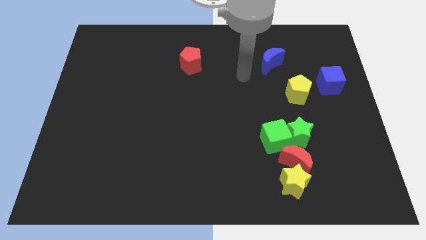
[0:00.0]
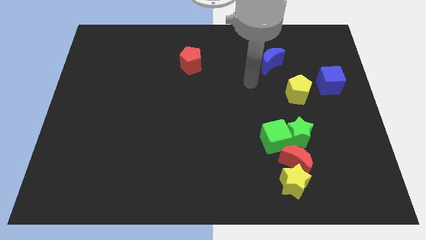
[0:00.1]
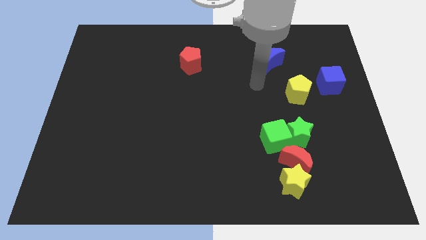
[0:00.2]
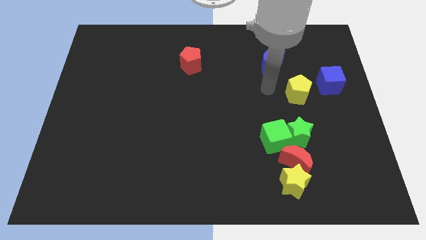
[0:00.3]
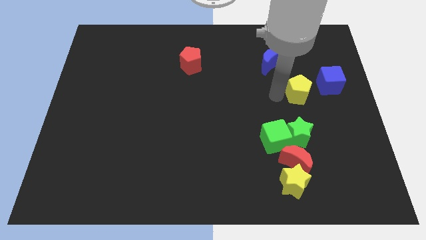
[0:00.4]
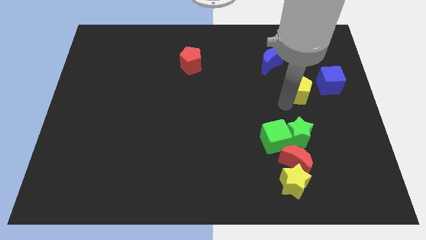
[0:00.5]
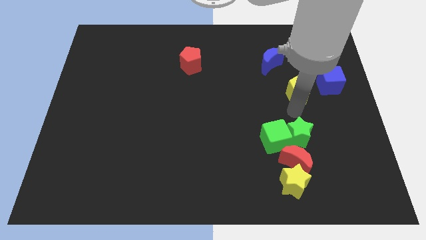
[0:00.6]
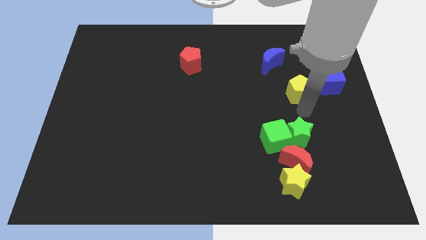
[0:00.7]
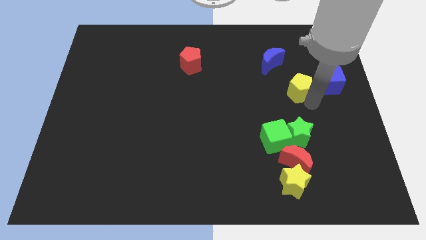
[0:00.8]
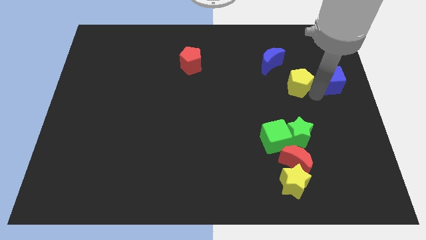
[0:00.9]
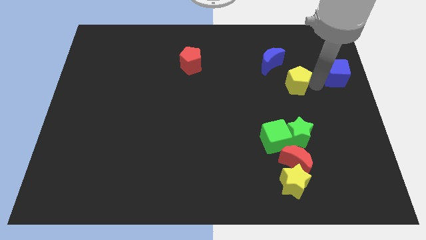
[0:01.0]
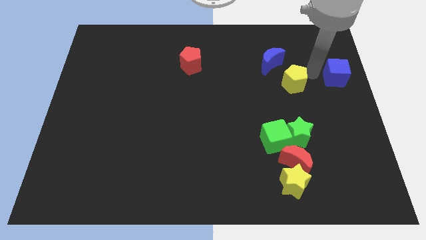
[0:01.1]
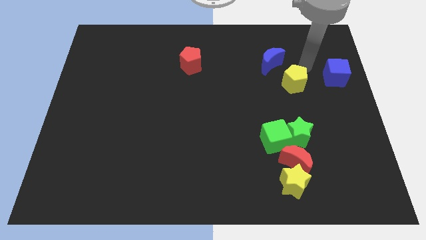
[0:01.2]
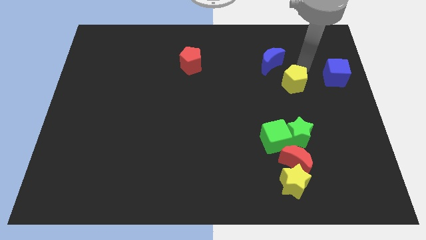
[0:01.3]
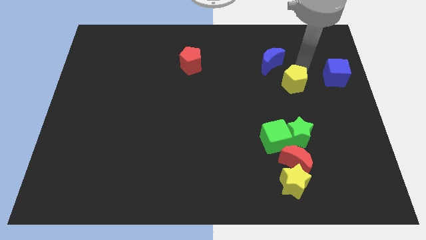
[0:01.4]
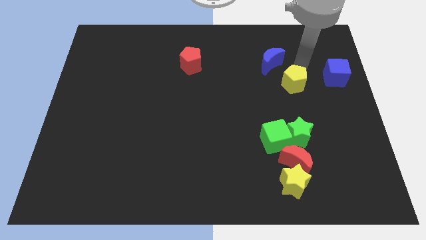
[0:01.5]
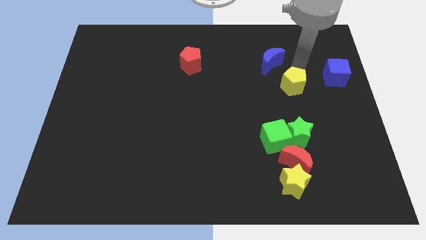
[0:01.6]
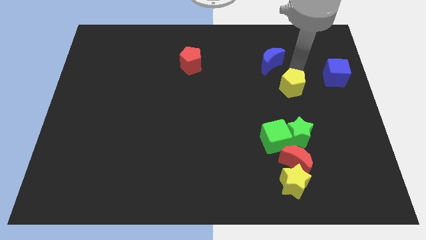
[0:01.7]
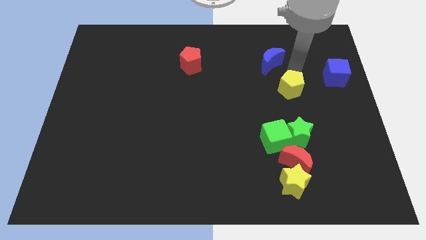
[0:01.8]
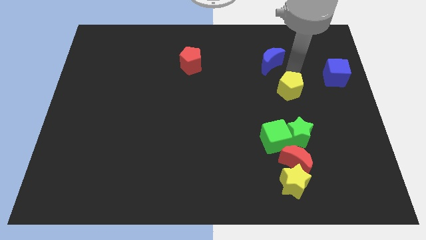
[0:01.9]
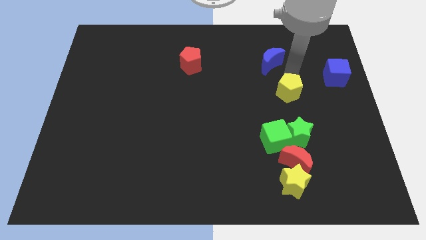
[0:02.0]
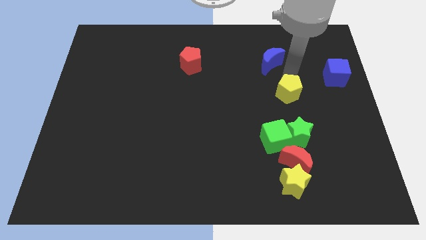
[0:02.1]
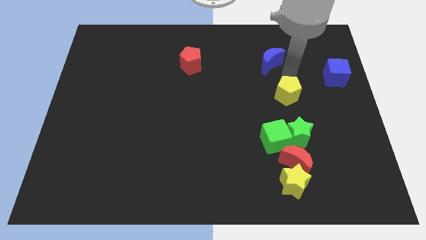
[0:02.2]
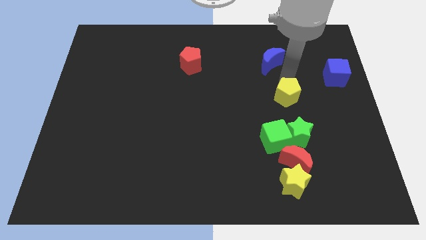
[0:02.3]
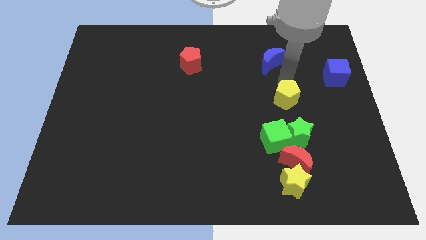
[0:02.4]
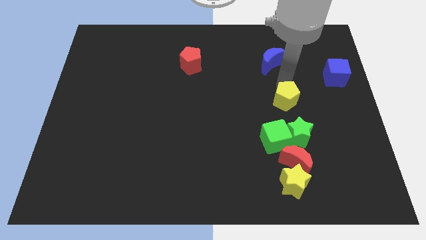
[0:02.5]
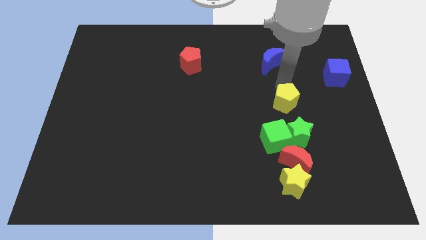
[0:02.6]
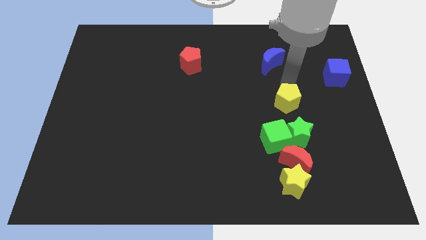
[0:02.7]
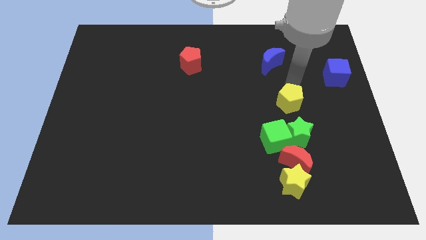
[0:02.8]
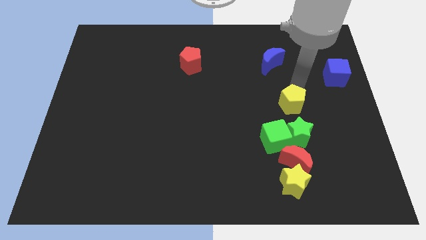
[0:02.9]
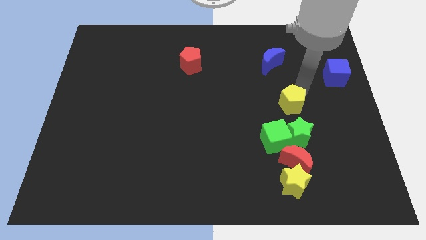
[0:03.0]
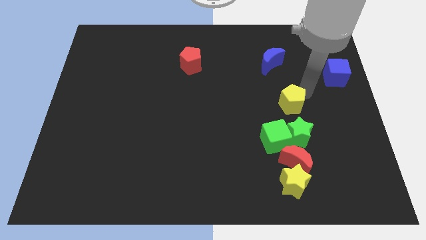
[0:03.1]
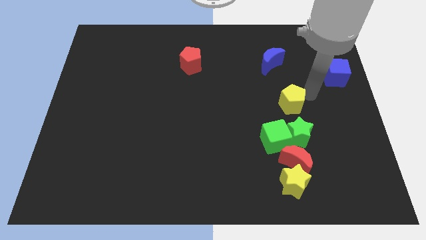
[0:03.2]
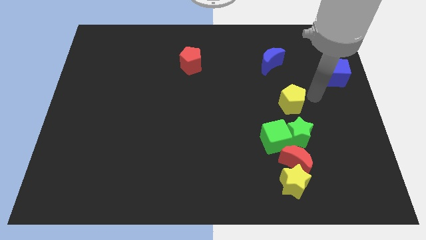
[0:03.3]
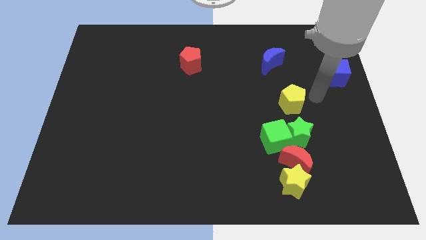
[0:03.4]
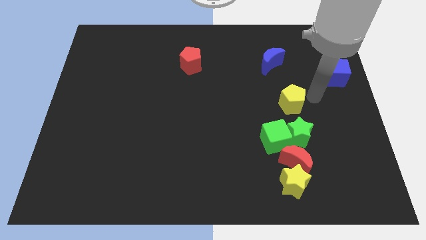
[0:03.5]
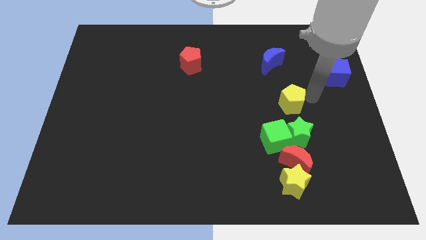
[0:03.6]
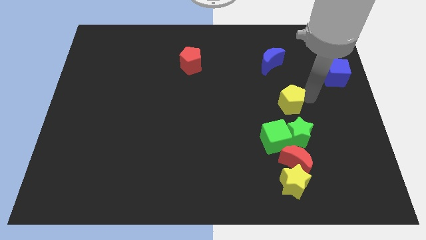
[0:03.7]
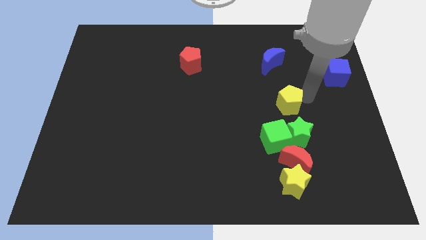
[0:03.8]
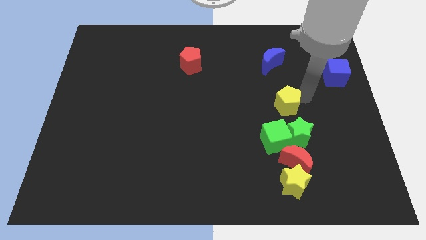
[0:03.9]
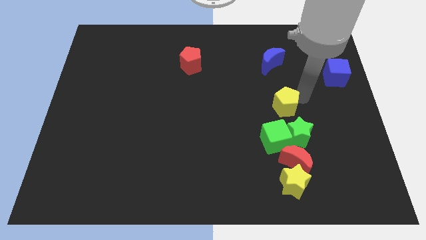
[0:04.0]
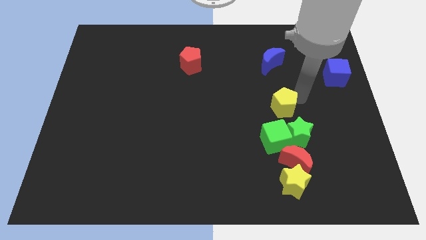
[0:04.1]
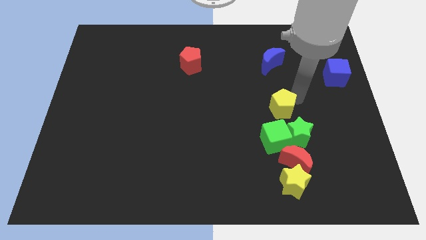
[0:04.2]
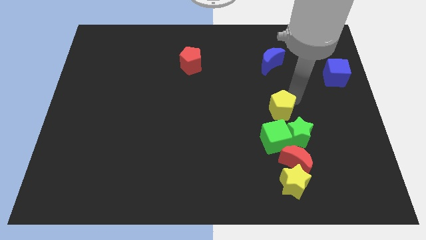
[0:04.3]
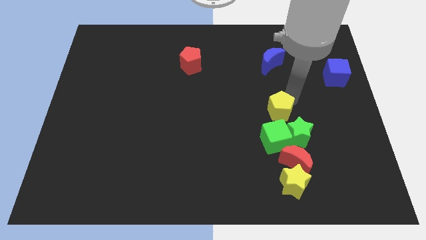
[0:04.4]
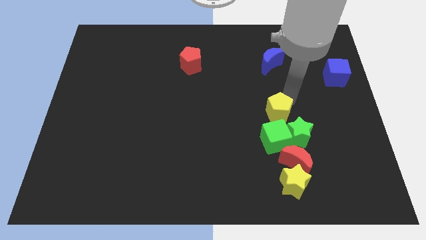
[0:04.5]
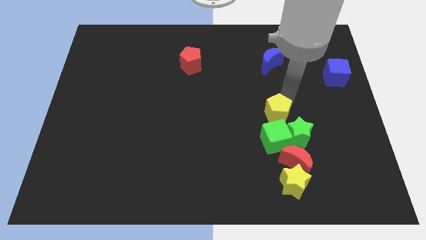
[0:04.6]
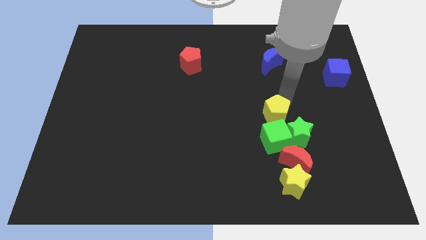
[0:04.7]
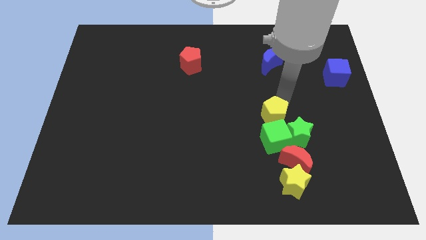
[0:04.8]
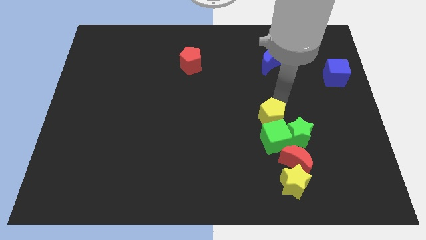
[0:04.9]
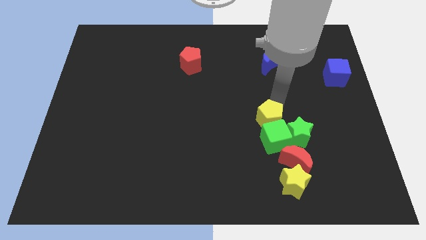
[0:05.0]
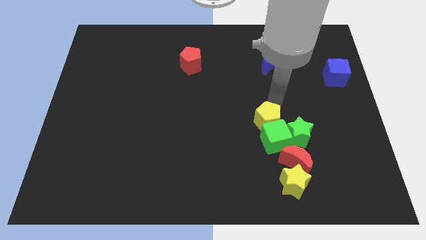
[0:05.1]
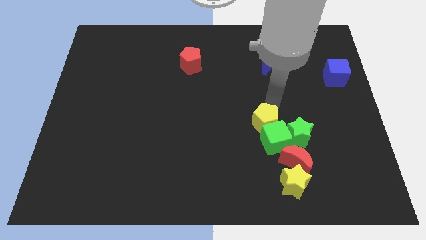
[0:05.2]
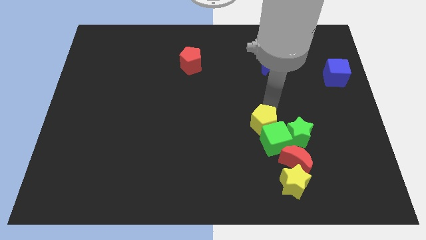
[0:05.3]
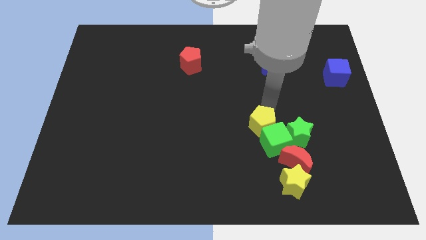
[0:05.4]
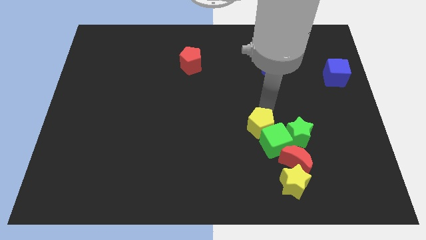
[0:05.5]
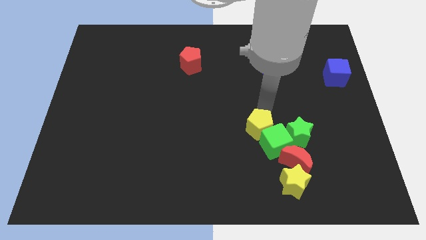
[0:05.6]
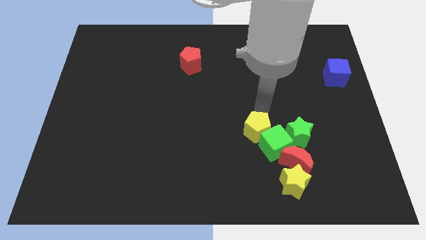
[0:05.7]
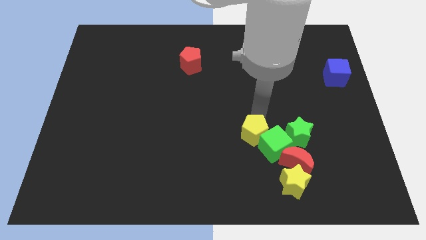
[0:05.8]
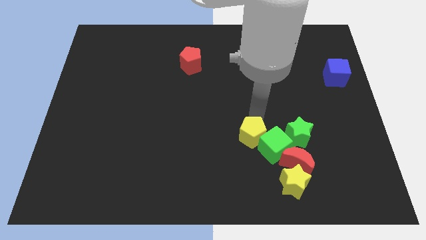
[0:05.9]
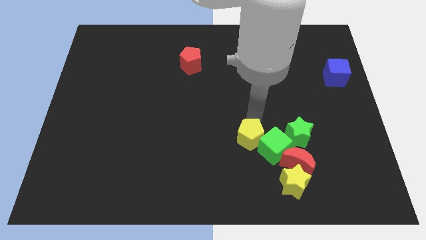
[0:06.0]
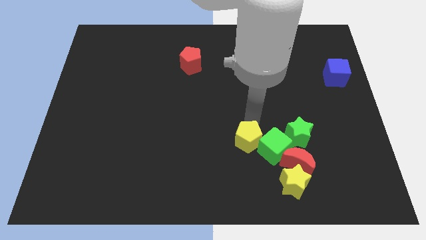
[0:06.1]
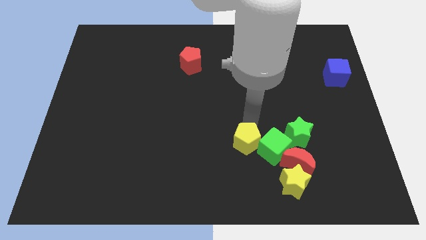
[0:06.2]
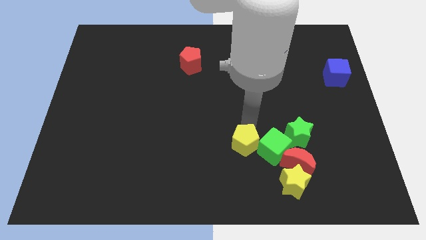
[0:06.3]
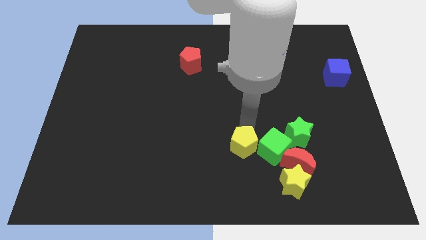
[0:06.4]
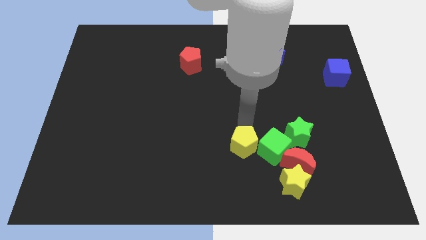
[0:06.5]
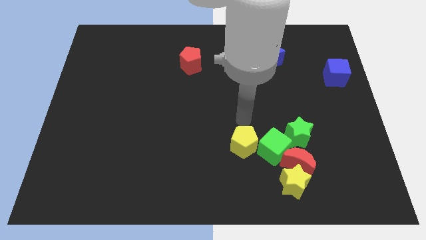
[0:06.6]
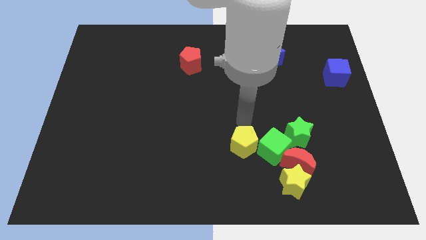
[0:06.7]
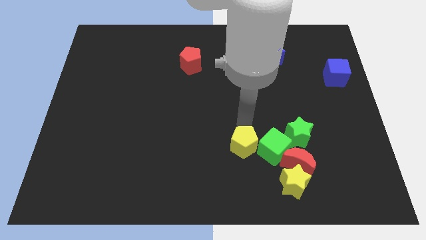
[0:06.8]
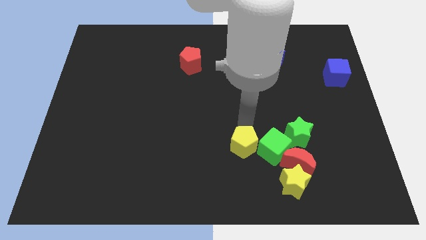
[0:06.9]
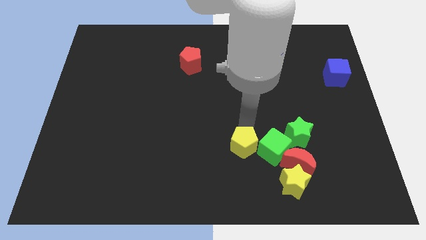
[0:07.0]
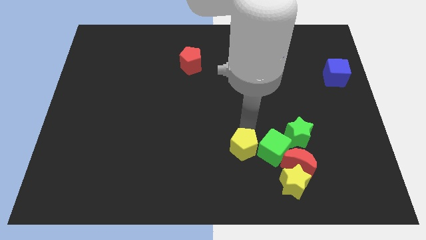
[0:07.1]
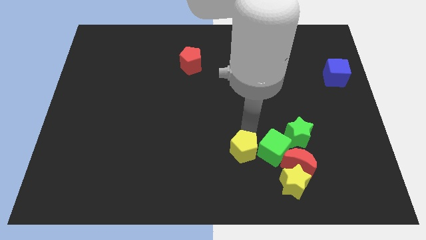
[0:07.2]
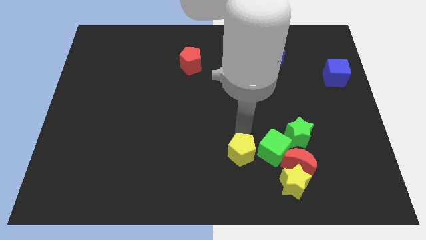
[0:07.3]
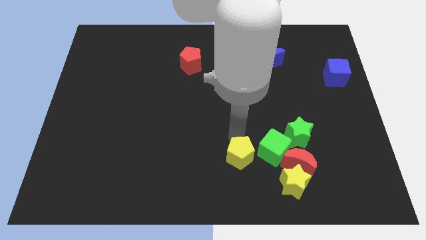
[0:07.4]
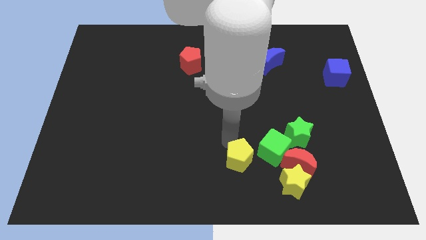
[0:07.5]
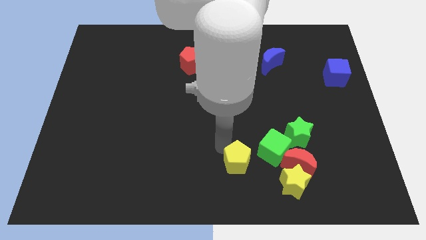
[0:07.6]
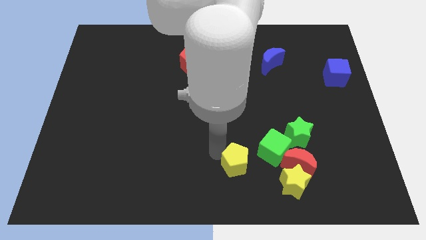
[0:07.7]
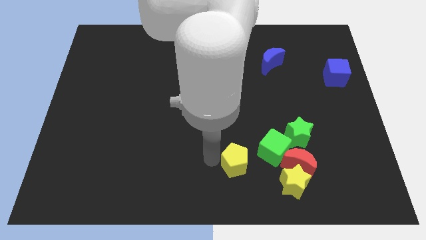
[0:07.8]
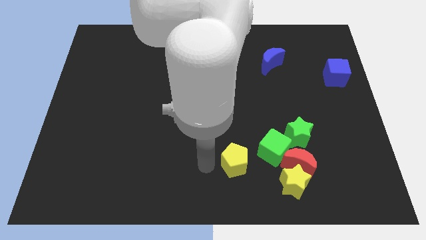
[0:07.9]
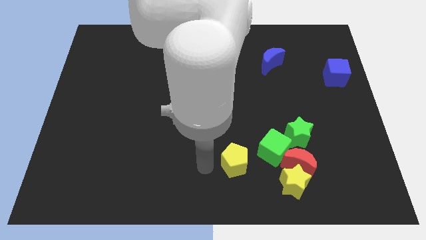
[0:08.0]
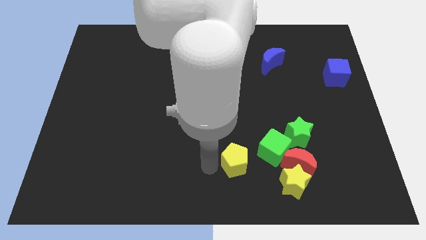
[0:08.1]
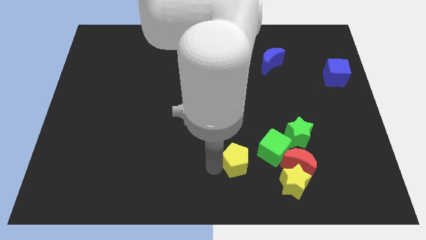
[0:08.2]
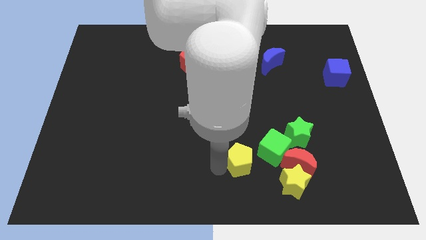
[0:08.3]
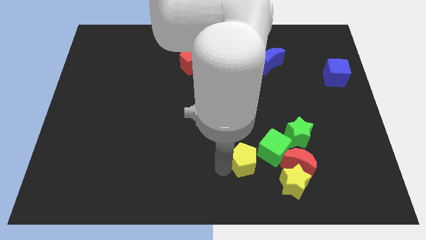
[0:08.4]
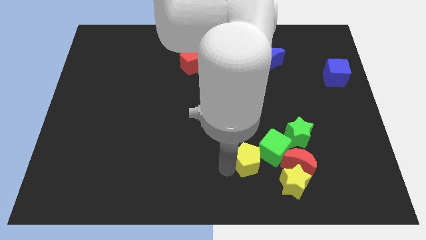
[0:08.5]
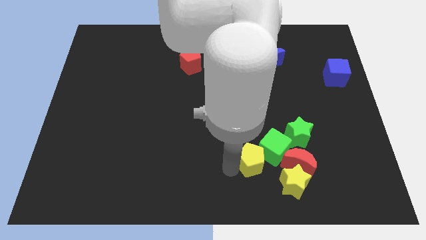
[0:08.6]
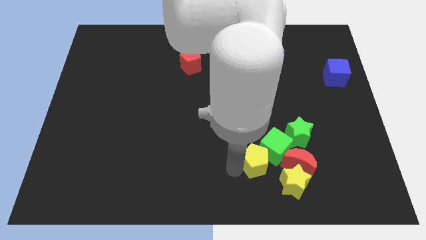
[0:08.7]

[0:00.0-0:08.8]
move the yellow pentagon diagonally down and to the left of the green star
